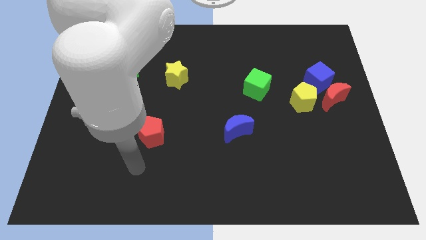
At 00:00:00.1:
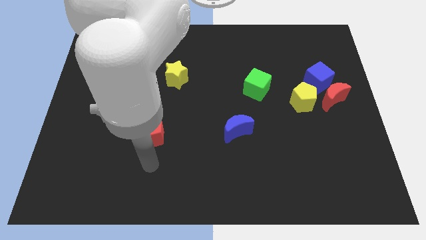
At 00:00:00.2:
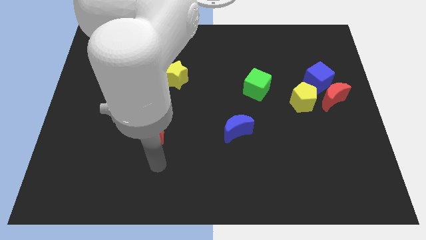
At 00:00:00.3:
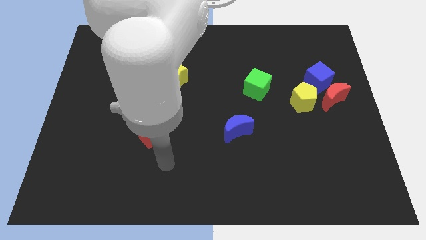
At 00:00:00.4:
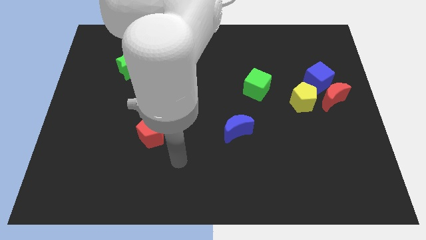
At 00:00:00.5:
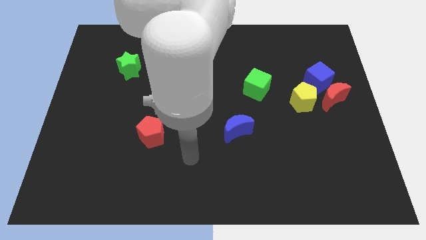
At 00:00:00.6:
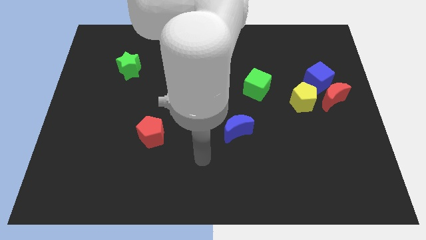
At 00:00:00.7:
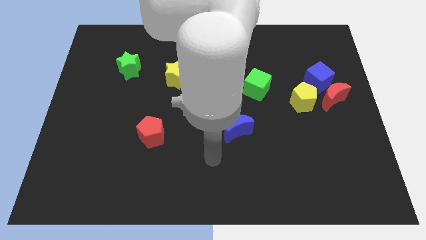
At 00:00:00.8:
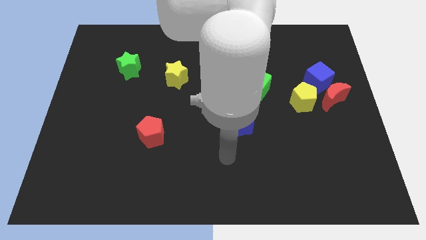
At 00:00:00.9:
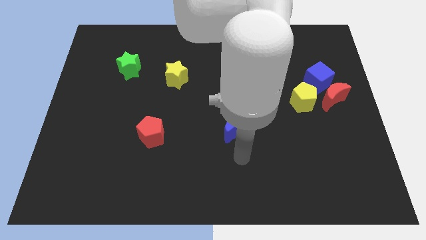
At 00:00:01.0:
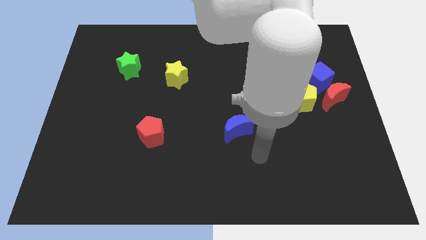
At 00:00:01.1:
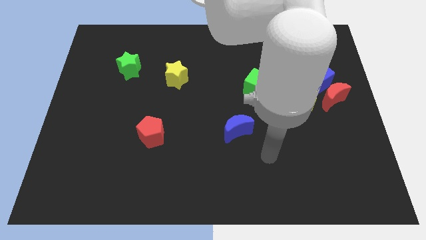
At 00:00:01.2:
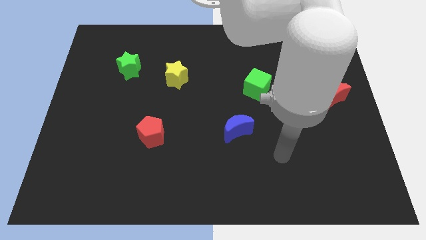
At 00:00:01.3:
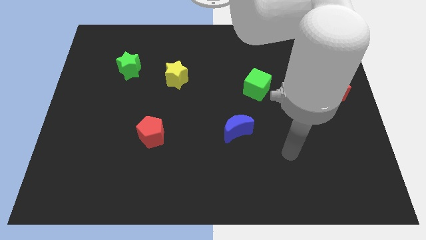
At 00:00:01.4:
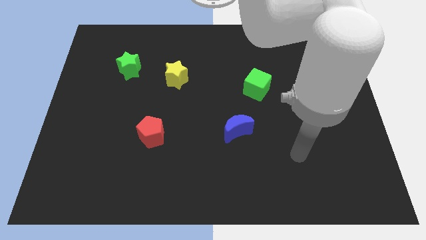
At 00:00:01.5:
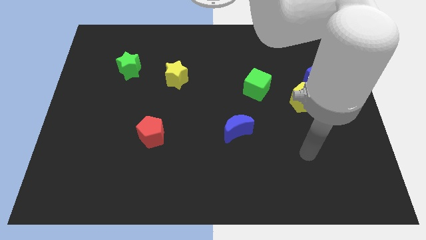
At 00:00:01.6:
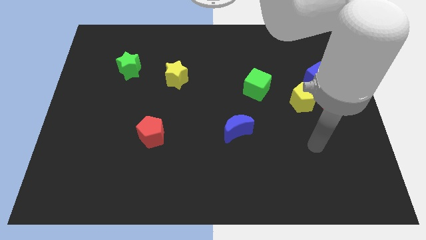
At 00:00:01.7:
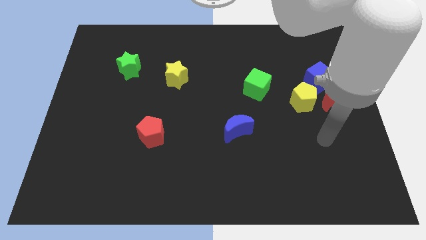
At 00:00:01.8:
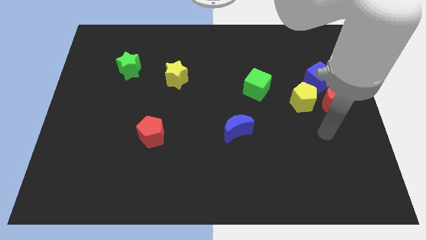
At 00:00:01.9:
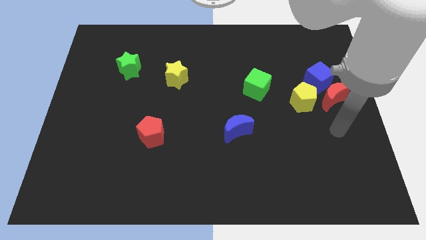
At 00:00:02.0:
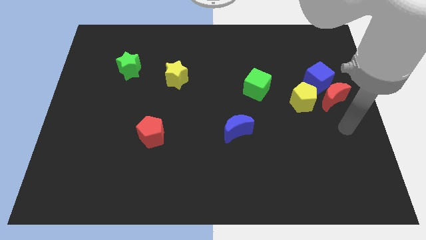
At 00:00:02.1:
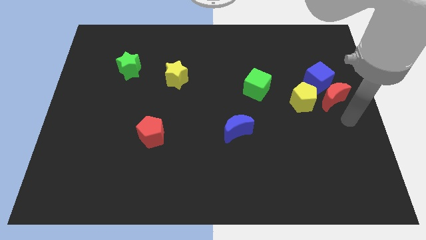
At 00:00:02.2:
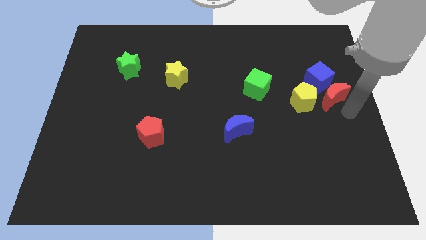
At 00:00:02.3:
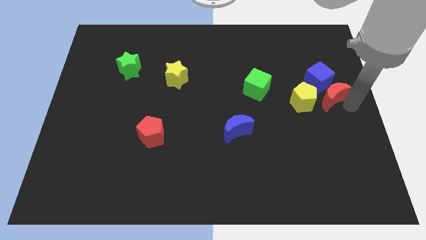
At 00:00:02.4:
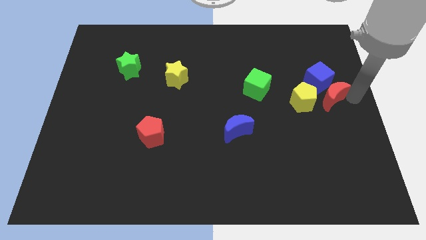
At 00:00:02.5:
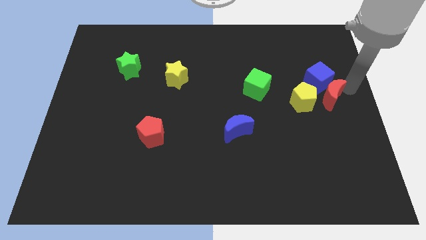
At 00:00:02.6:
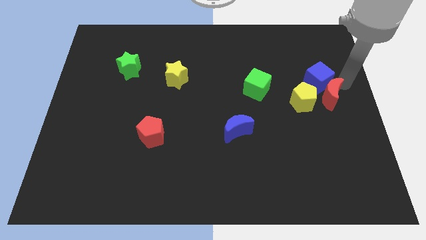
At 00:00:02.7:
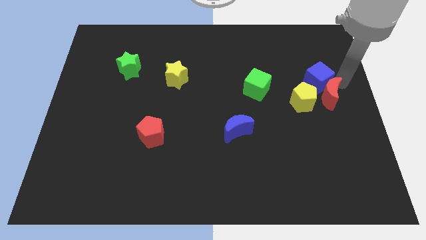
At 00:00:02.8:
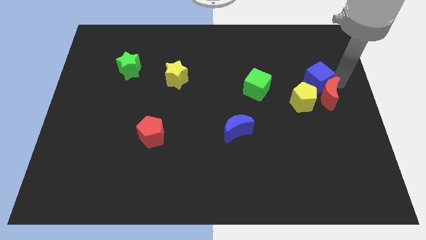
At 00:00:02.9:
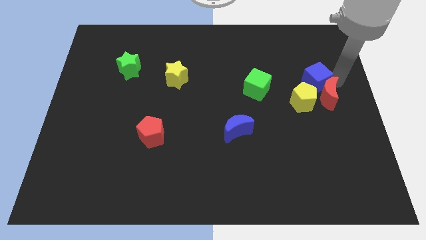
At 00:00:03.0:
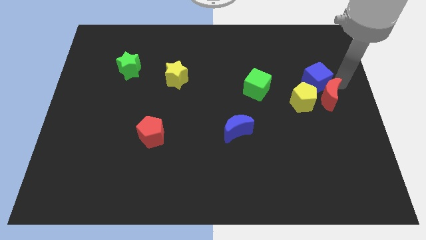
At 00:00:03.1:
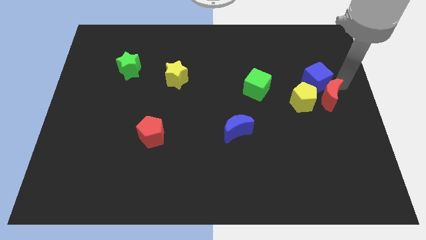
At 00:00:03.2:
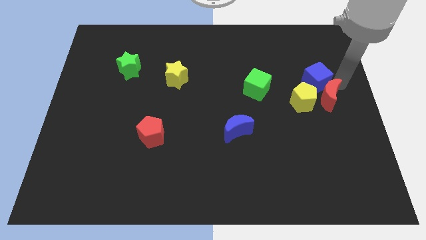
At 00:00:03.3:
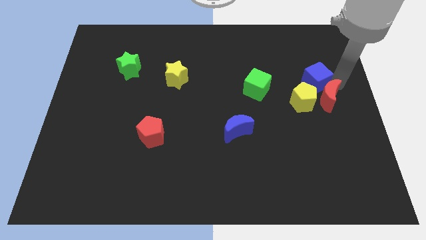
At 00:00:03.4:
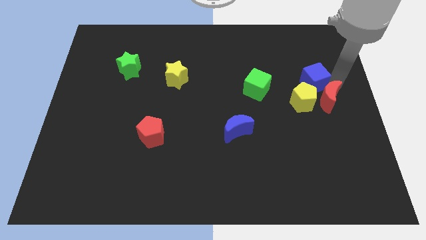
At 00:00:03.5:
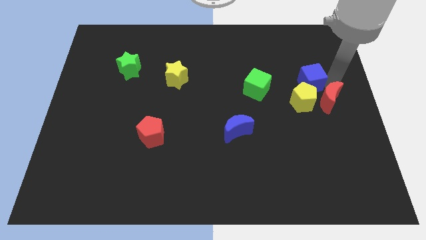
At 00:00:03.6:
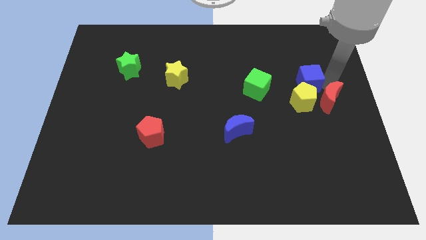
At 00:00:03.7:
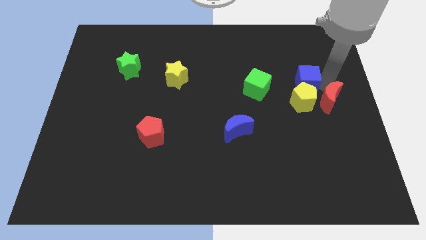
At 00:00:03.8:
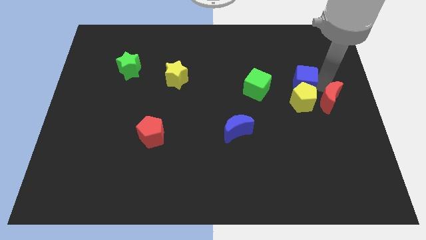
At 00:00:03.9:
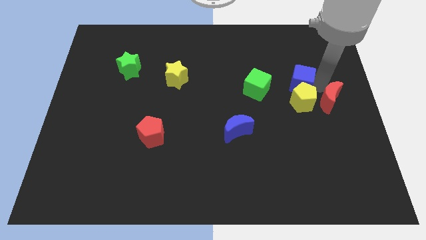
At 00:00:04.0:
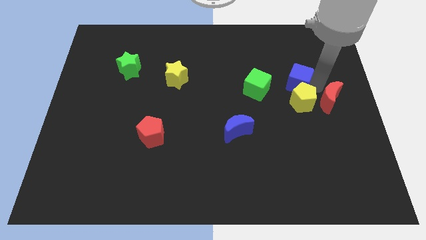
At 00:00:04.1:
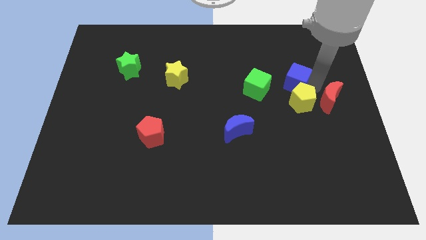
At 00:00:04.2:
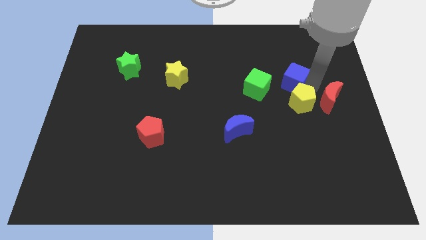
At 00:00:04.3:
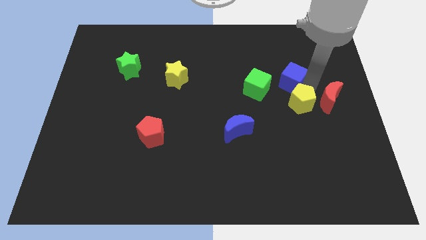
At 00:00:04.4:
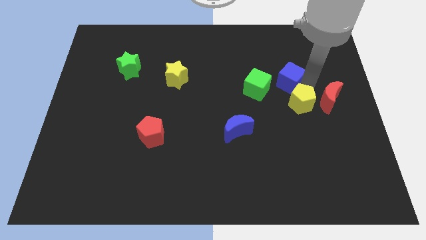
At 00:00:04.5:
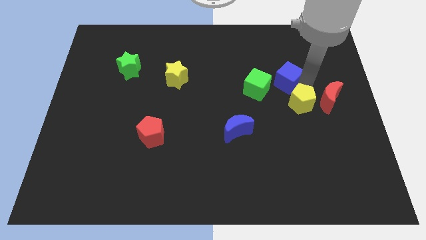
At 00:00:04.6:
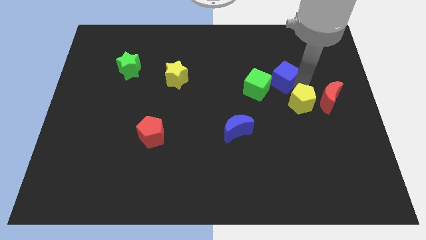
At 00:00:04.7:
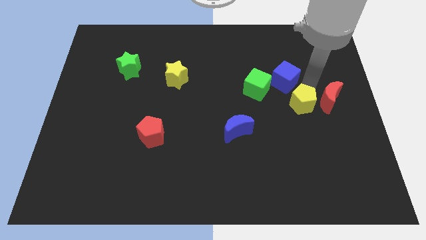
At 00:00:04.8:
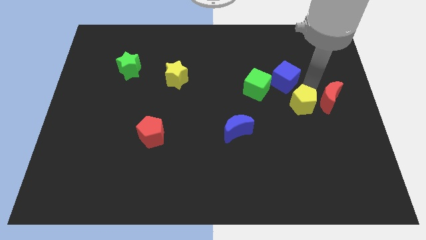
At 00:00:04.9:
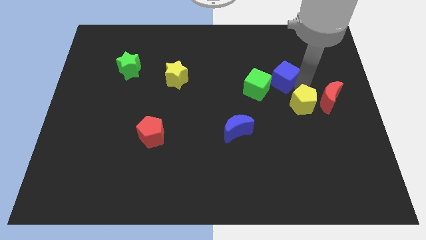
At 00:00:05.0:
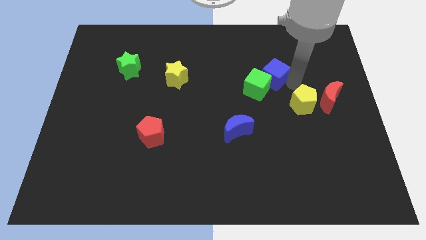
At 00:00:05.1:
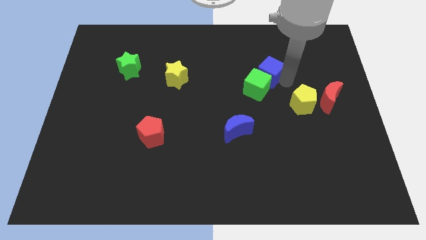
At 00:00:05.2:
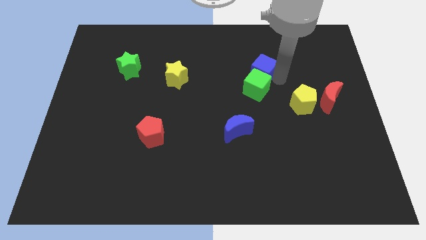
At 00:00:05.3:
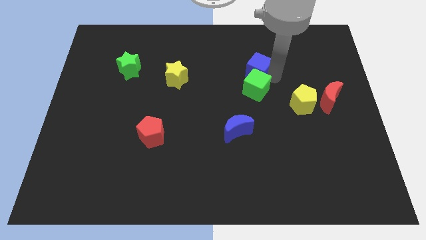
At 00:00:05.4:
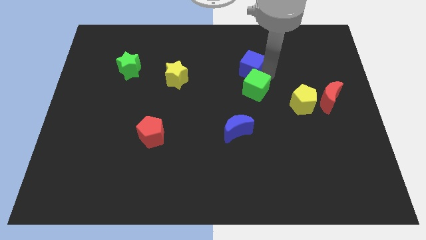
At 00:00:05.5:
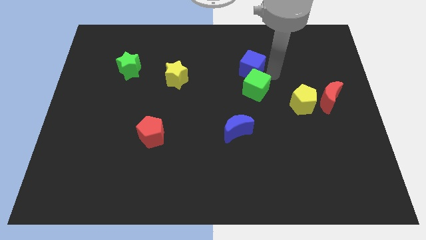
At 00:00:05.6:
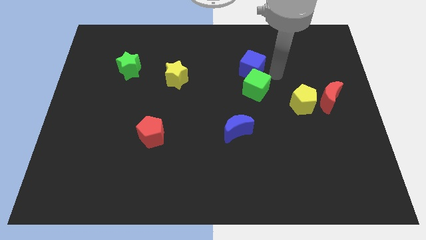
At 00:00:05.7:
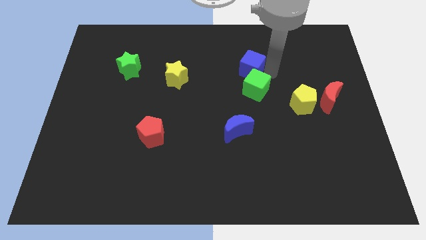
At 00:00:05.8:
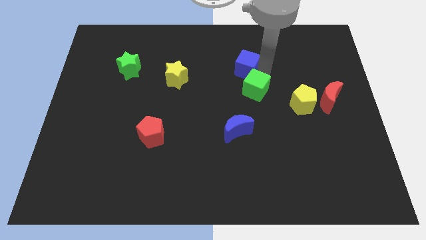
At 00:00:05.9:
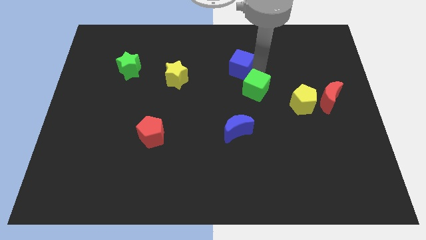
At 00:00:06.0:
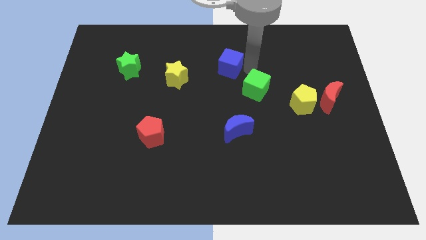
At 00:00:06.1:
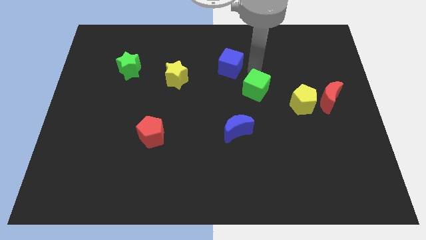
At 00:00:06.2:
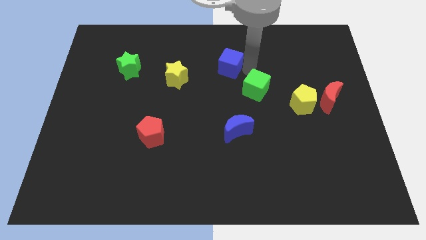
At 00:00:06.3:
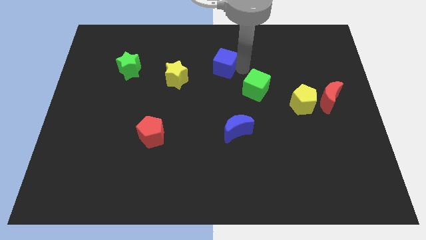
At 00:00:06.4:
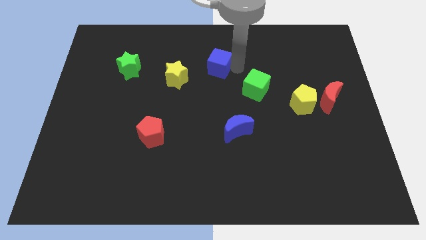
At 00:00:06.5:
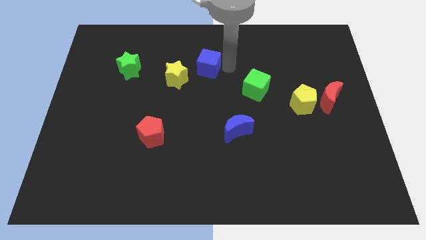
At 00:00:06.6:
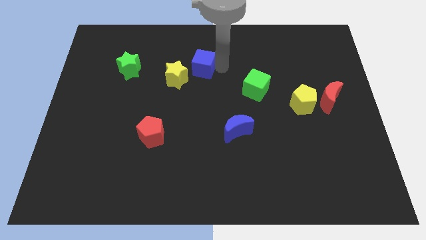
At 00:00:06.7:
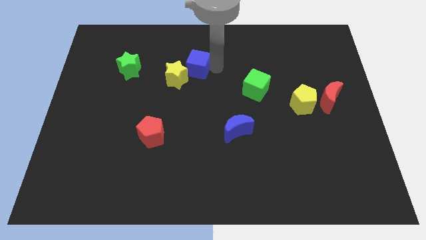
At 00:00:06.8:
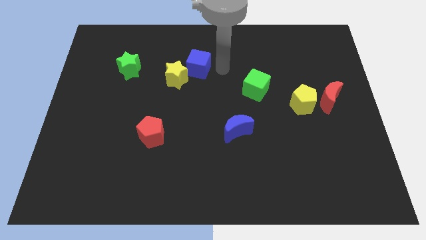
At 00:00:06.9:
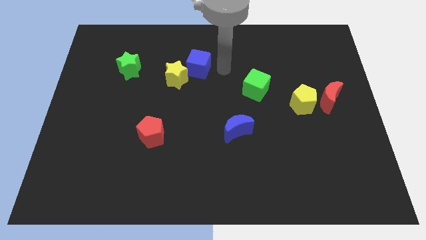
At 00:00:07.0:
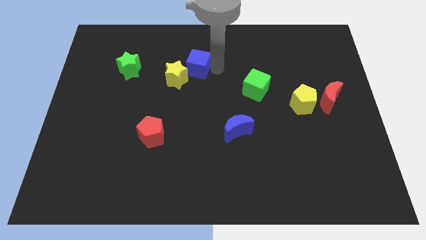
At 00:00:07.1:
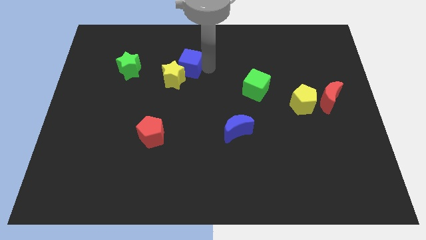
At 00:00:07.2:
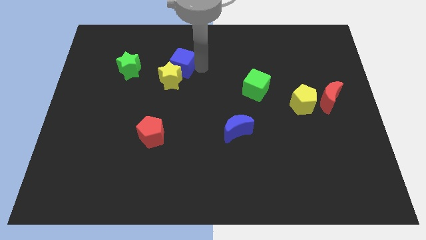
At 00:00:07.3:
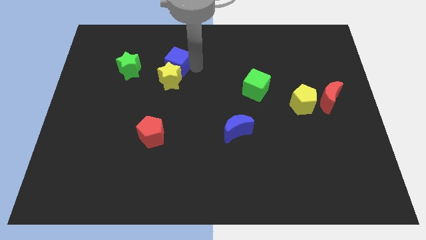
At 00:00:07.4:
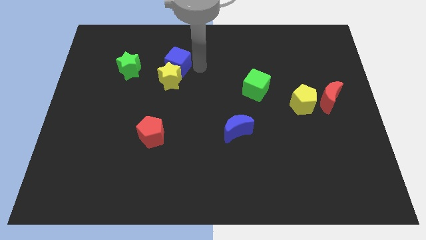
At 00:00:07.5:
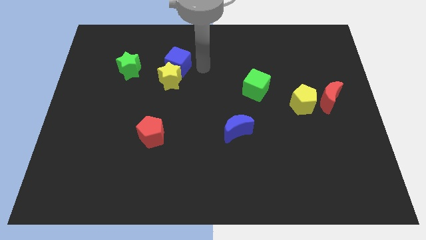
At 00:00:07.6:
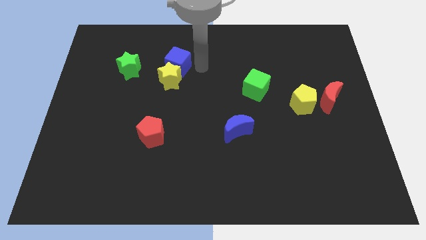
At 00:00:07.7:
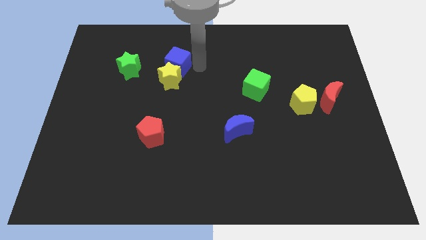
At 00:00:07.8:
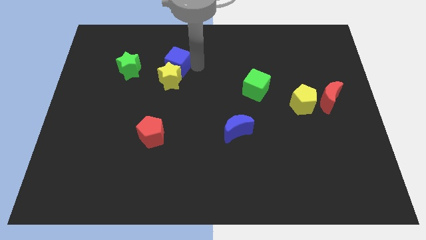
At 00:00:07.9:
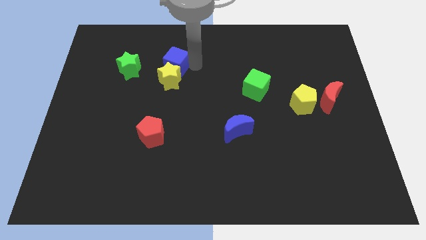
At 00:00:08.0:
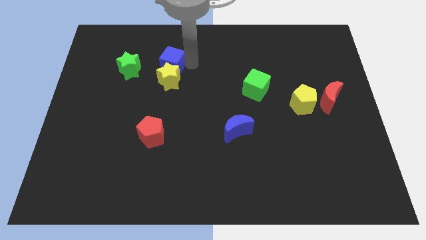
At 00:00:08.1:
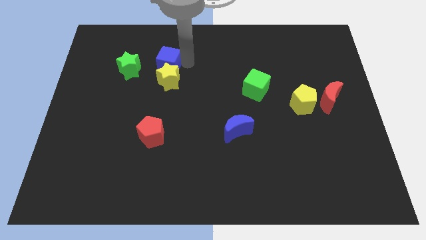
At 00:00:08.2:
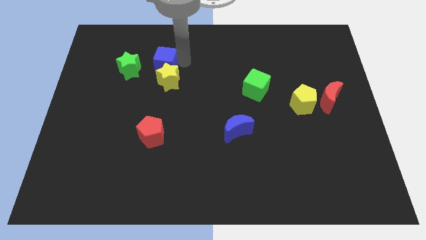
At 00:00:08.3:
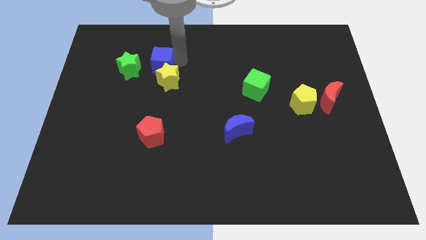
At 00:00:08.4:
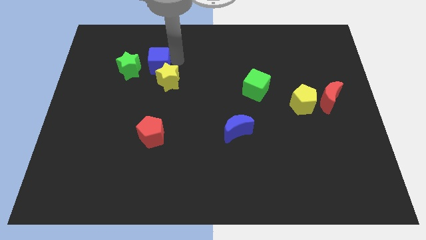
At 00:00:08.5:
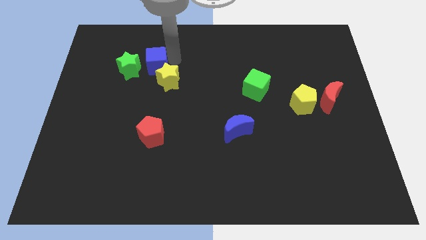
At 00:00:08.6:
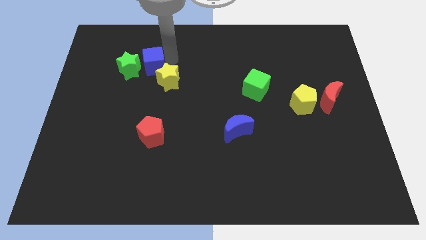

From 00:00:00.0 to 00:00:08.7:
move the blue cube next to the green star
